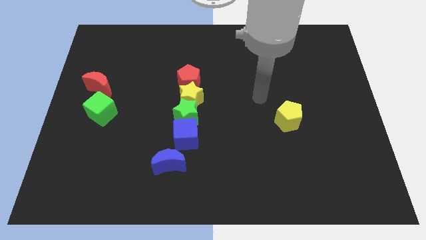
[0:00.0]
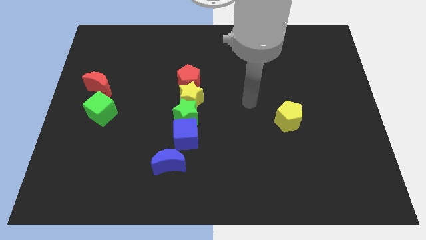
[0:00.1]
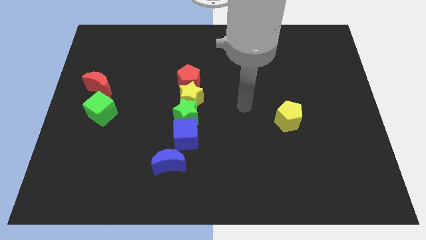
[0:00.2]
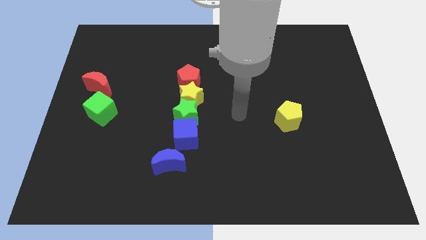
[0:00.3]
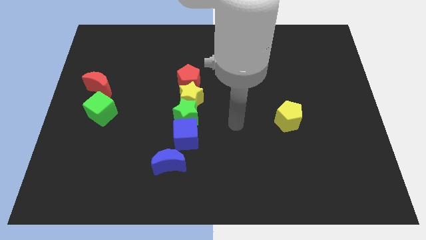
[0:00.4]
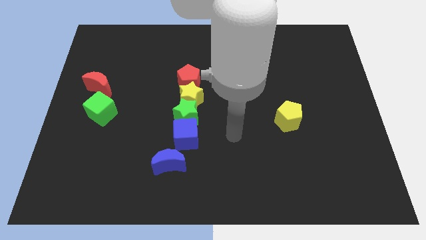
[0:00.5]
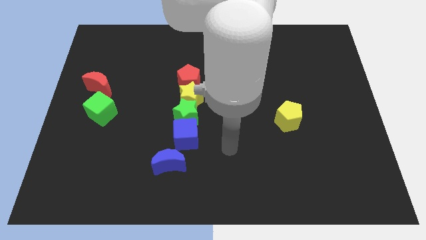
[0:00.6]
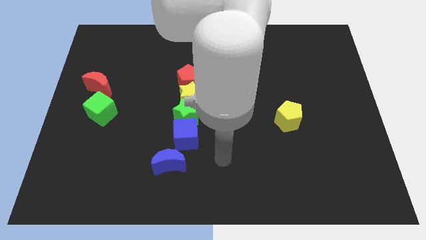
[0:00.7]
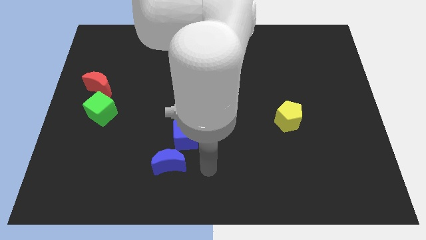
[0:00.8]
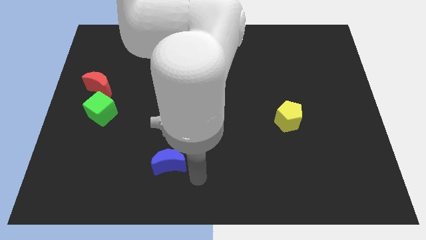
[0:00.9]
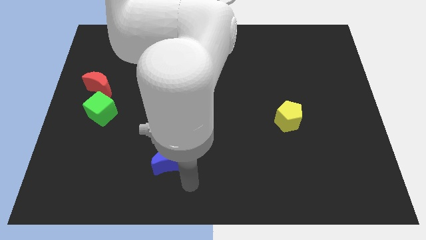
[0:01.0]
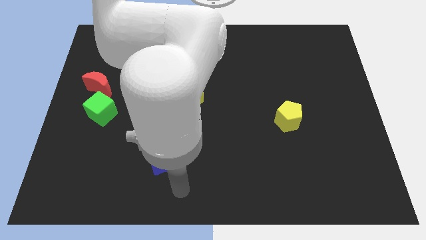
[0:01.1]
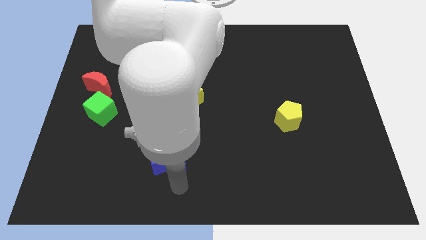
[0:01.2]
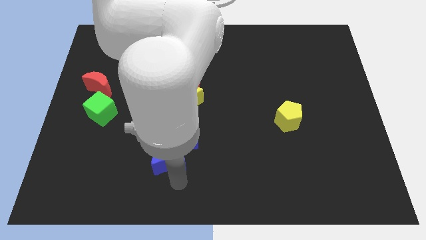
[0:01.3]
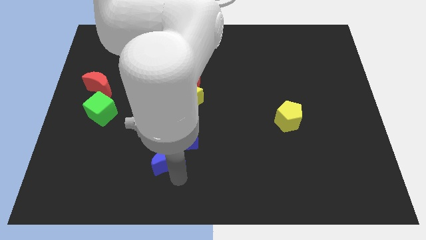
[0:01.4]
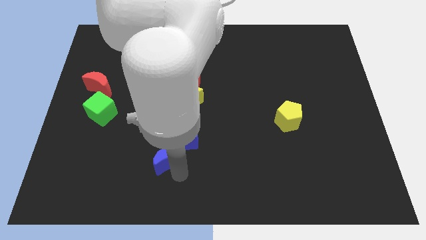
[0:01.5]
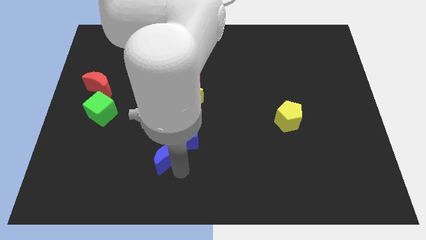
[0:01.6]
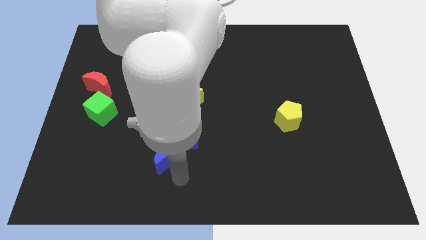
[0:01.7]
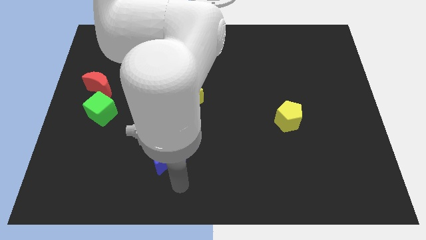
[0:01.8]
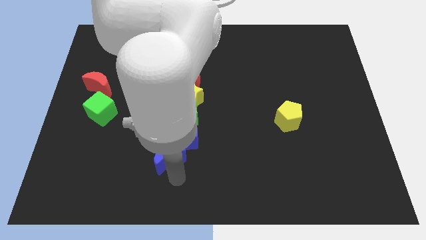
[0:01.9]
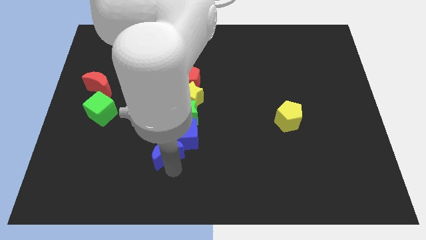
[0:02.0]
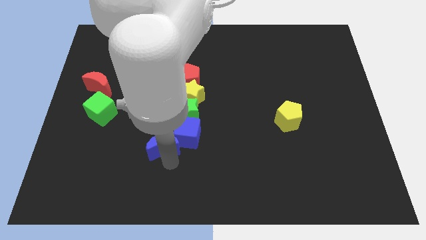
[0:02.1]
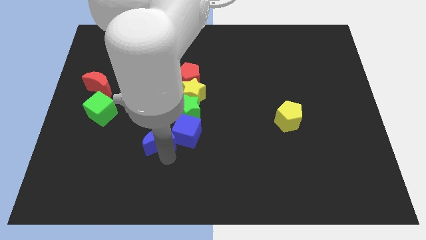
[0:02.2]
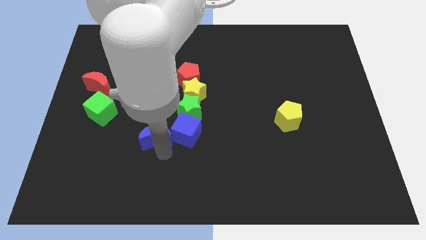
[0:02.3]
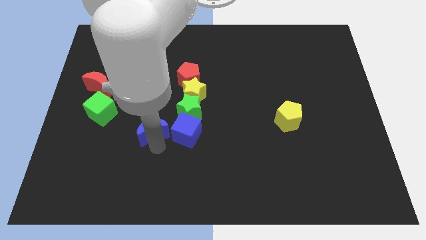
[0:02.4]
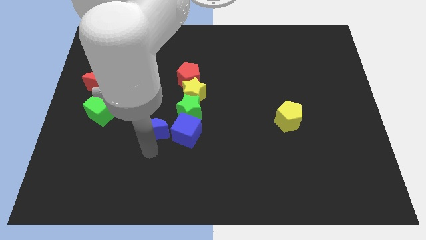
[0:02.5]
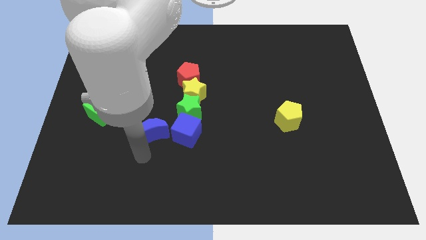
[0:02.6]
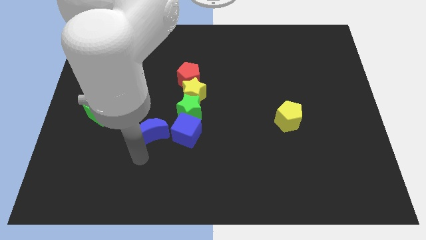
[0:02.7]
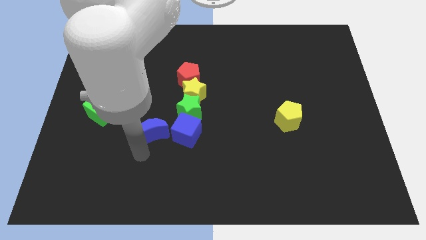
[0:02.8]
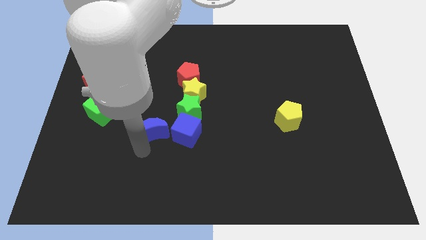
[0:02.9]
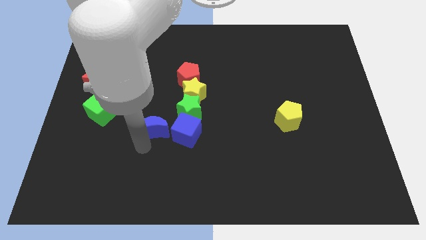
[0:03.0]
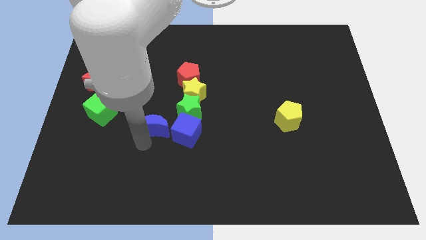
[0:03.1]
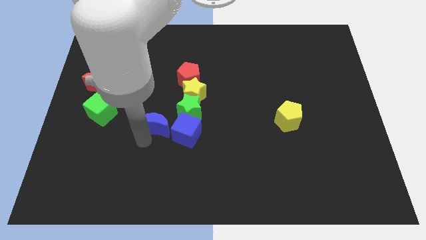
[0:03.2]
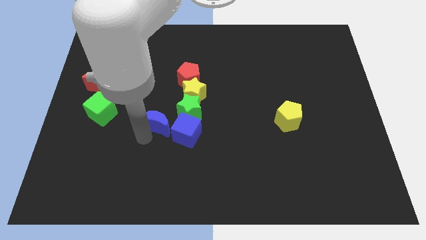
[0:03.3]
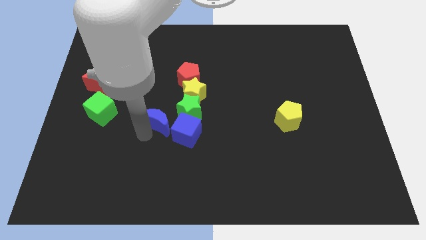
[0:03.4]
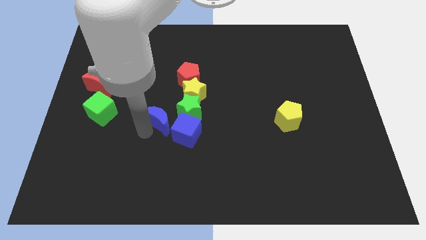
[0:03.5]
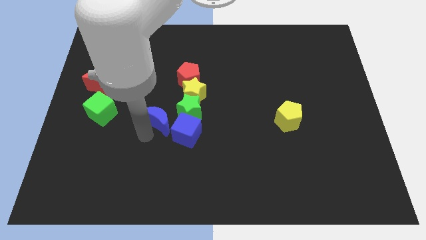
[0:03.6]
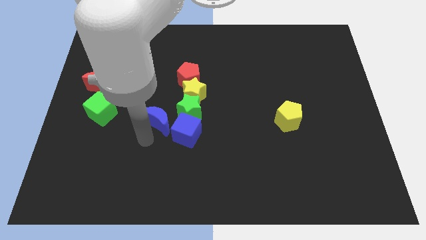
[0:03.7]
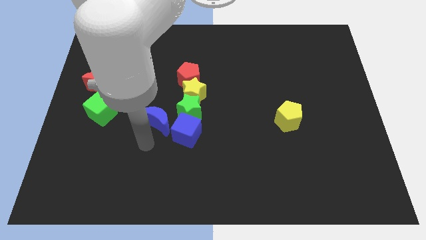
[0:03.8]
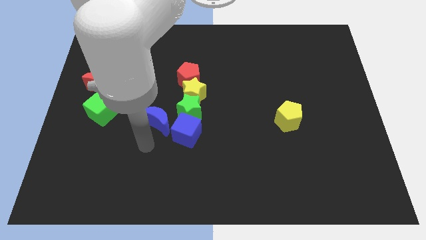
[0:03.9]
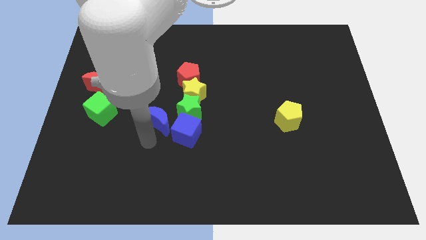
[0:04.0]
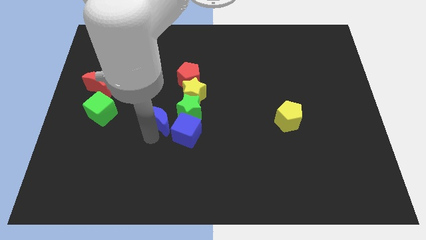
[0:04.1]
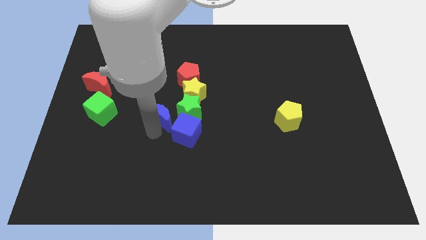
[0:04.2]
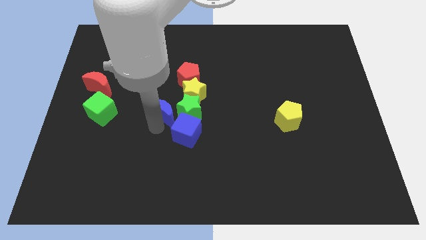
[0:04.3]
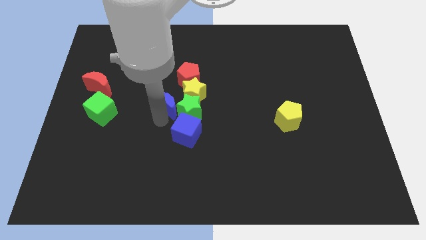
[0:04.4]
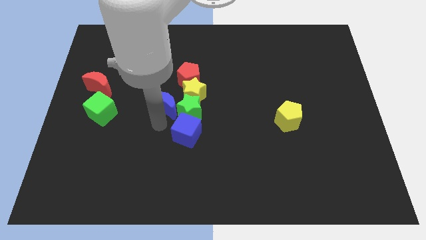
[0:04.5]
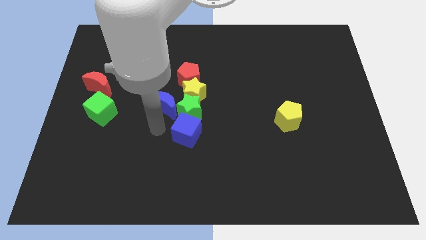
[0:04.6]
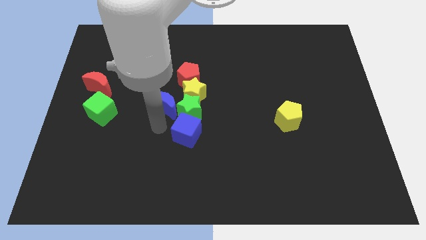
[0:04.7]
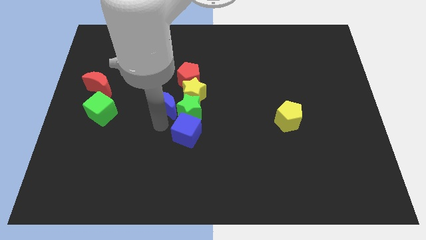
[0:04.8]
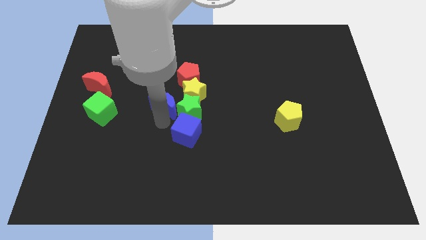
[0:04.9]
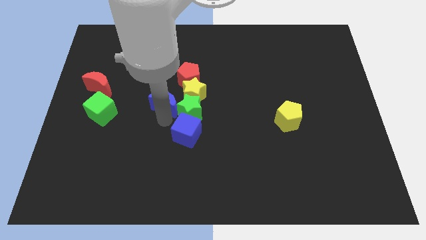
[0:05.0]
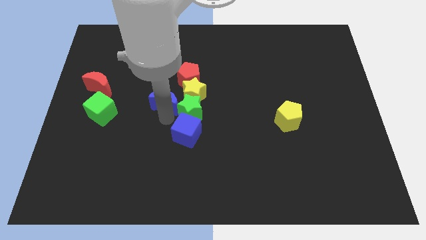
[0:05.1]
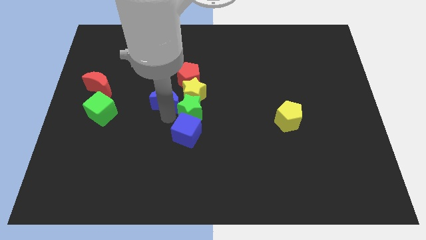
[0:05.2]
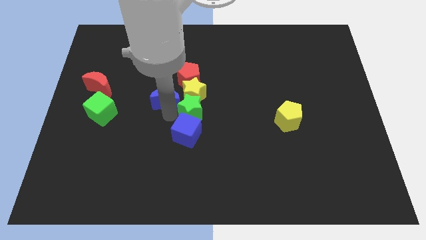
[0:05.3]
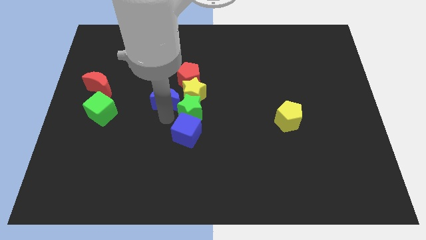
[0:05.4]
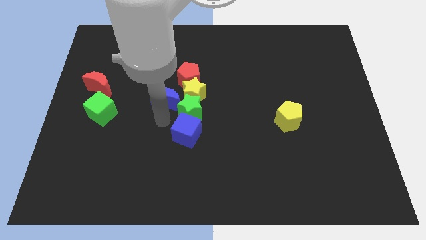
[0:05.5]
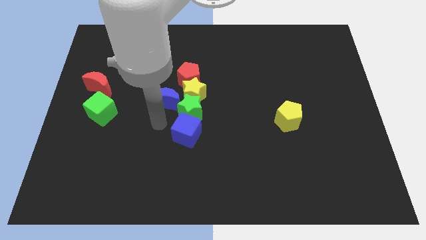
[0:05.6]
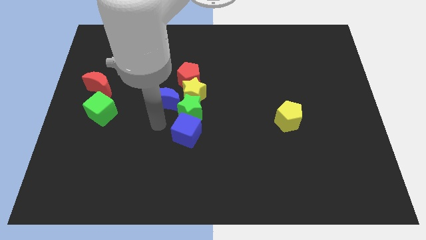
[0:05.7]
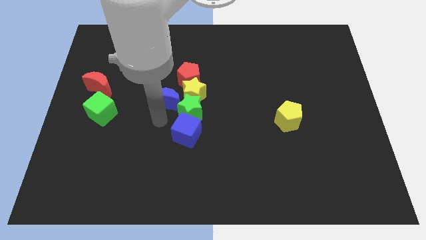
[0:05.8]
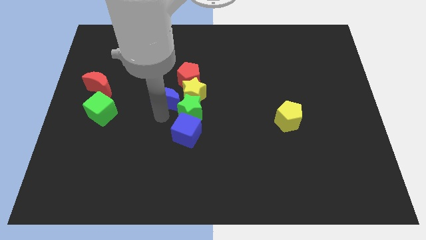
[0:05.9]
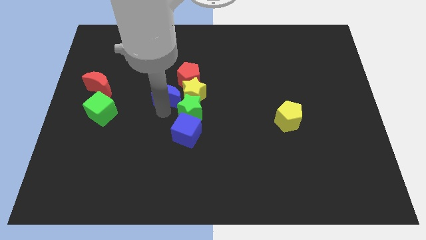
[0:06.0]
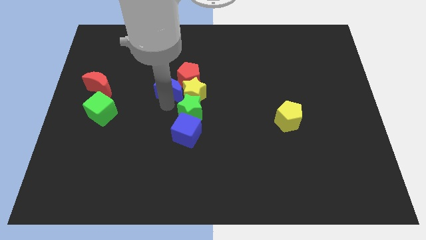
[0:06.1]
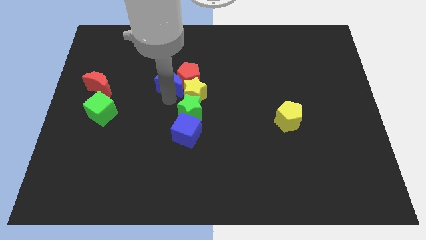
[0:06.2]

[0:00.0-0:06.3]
move the blue moon to the top of the green star

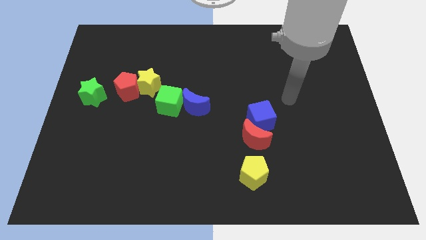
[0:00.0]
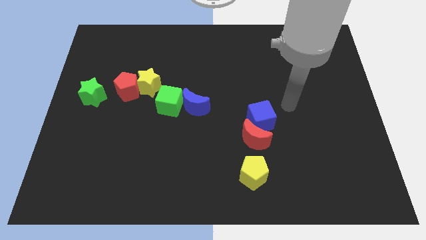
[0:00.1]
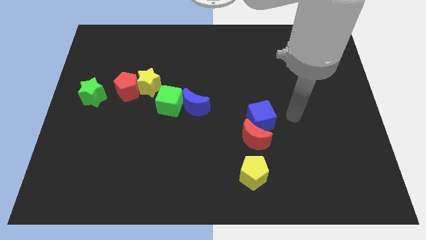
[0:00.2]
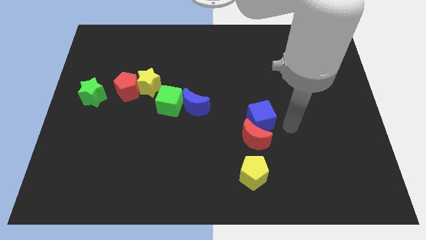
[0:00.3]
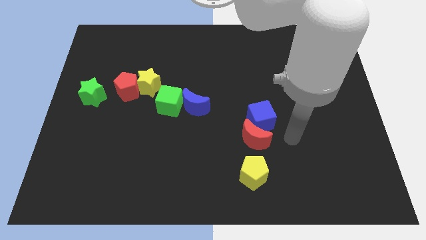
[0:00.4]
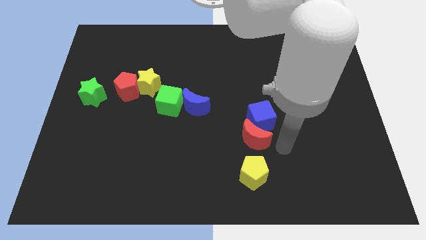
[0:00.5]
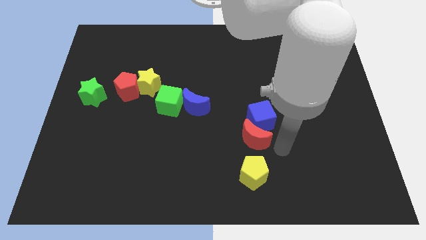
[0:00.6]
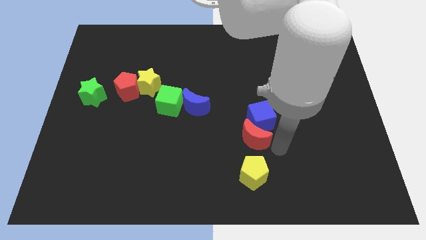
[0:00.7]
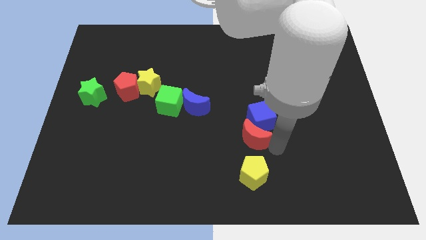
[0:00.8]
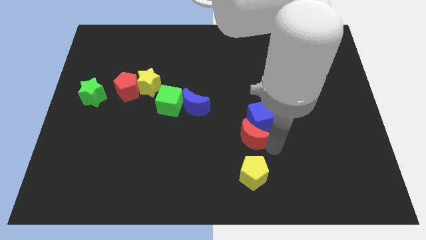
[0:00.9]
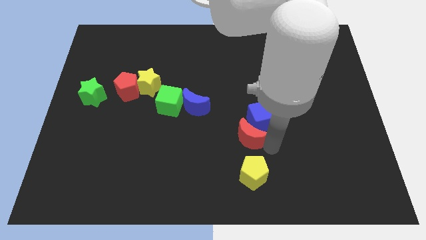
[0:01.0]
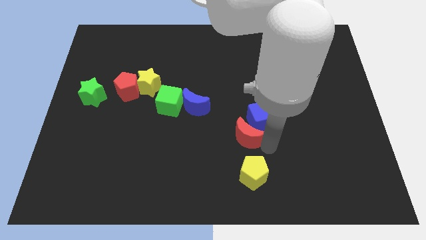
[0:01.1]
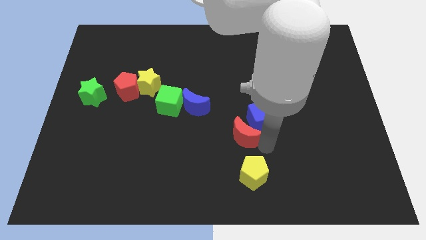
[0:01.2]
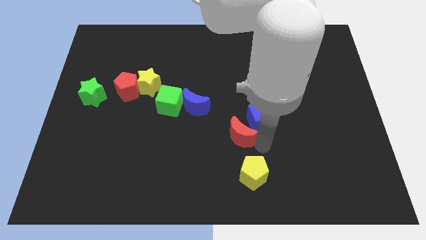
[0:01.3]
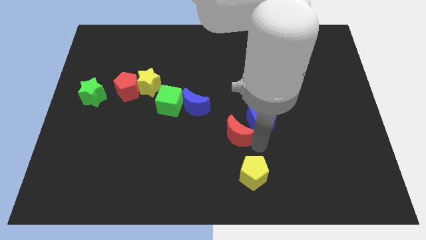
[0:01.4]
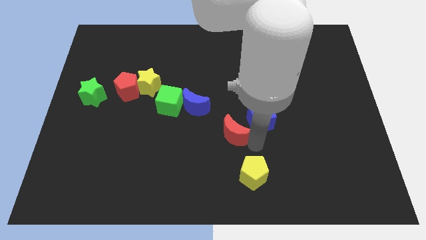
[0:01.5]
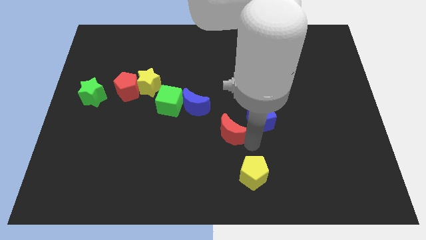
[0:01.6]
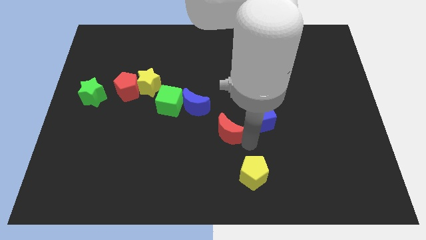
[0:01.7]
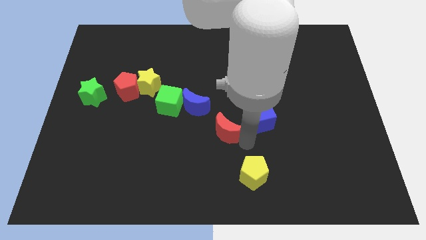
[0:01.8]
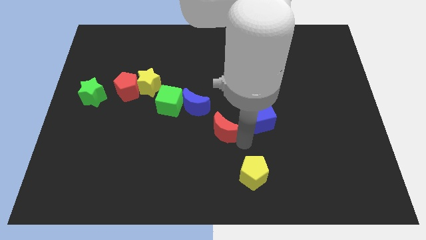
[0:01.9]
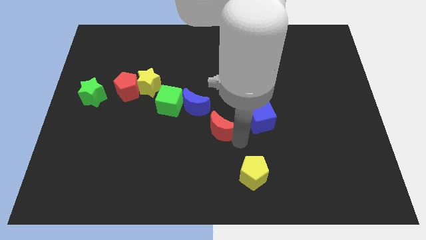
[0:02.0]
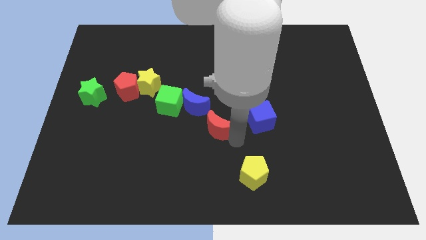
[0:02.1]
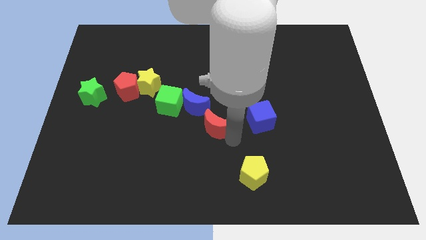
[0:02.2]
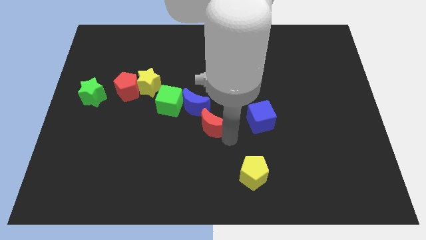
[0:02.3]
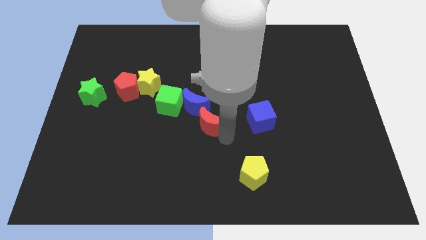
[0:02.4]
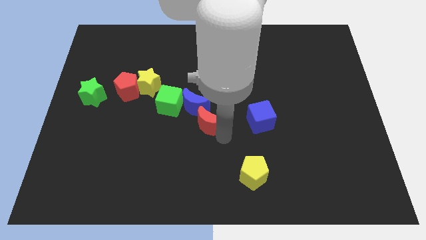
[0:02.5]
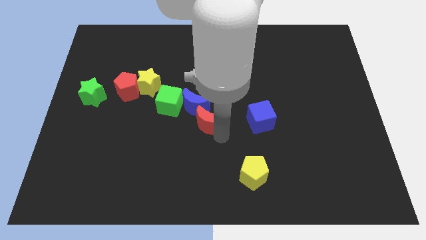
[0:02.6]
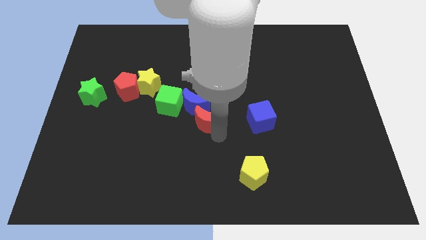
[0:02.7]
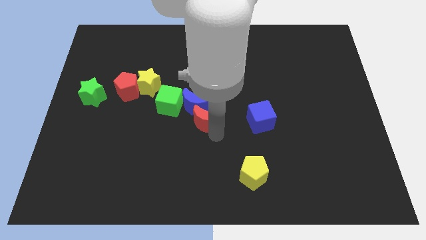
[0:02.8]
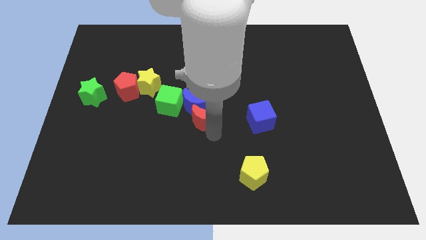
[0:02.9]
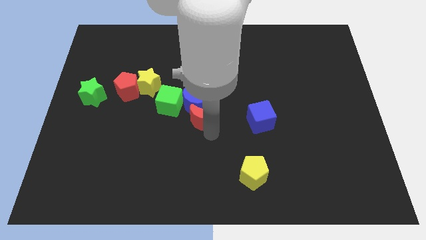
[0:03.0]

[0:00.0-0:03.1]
push the red moon to the bottom left side of the blue moon
